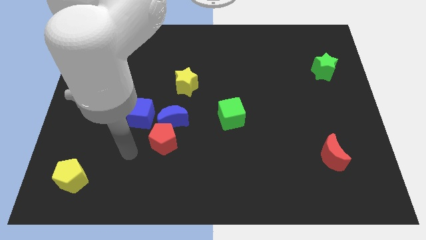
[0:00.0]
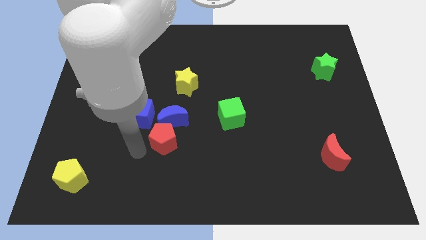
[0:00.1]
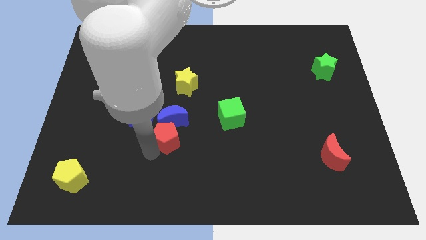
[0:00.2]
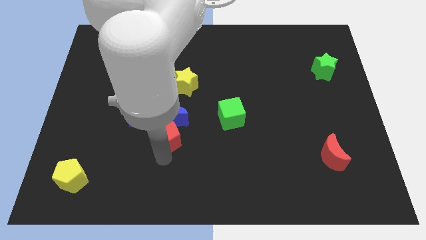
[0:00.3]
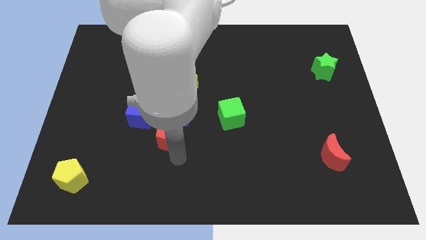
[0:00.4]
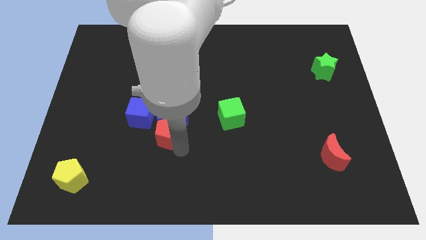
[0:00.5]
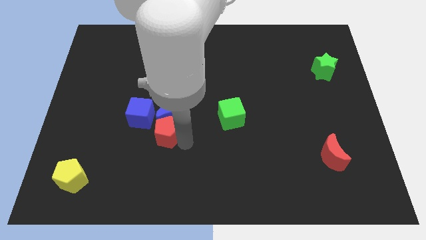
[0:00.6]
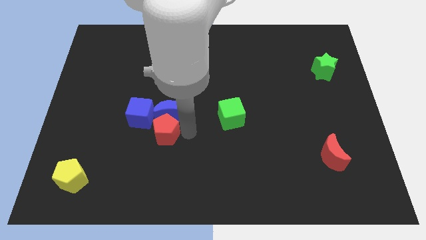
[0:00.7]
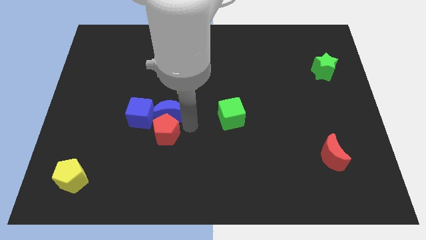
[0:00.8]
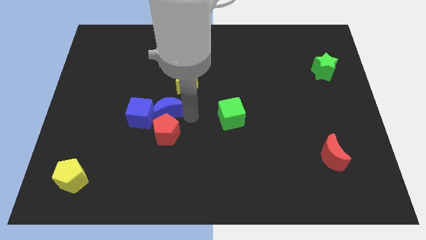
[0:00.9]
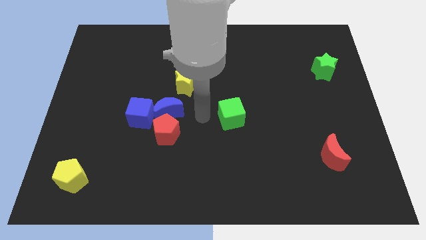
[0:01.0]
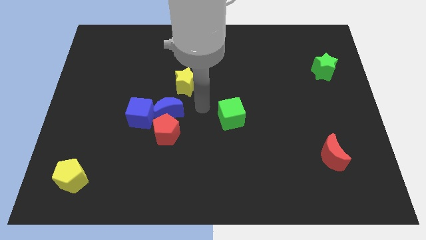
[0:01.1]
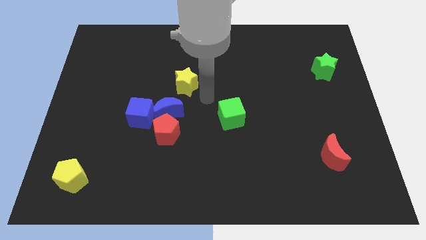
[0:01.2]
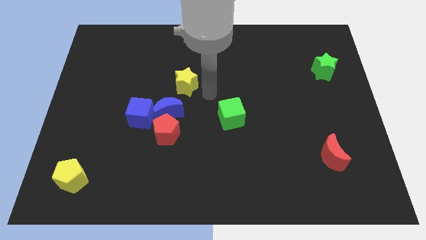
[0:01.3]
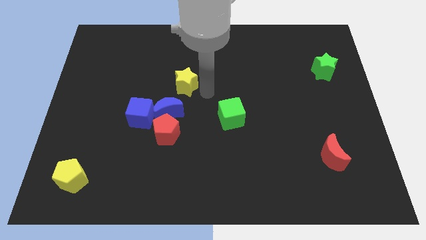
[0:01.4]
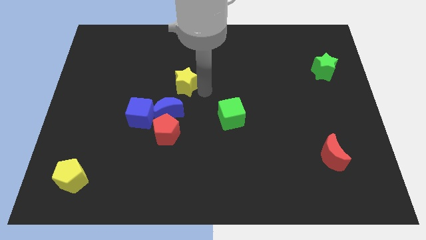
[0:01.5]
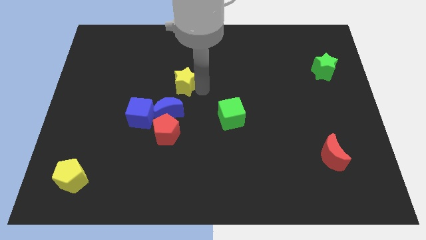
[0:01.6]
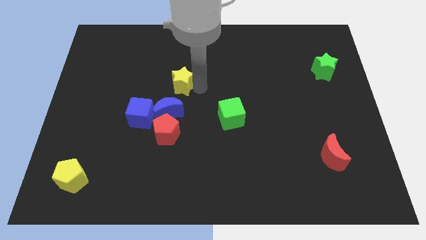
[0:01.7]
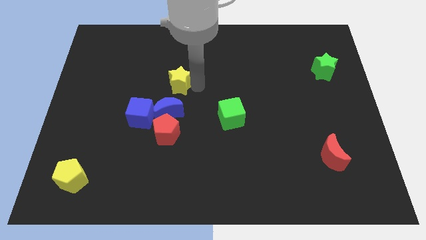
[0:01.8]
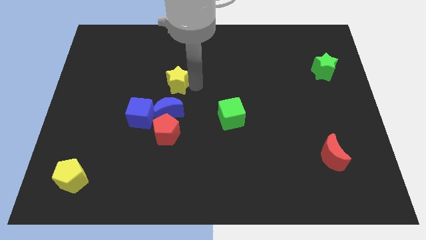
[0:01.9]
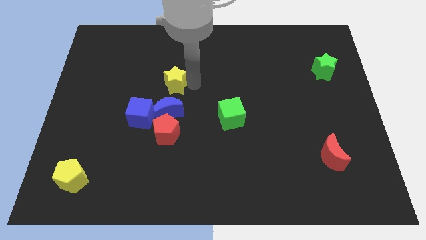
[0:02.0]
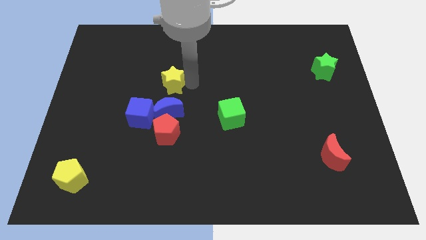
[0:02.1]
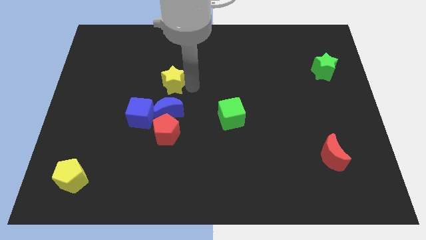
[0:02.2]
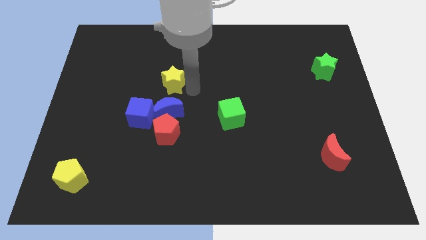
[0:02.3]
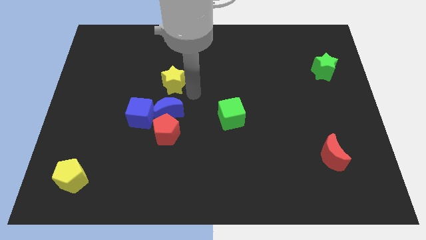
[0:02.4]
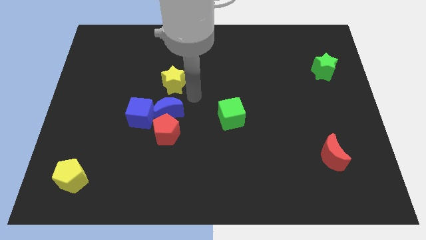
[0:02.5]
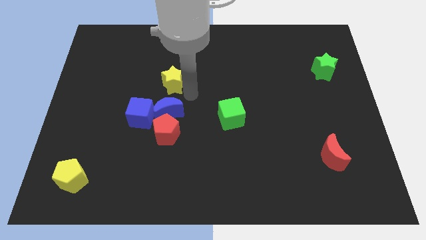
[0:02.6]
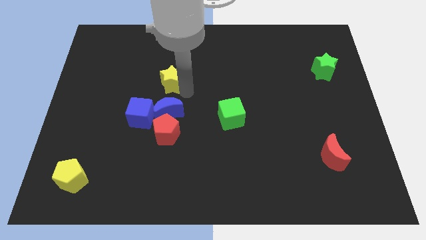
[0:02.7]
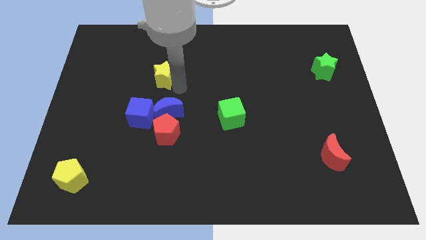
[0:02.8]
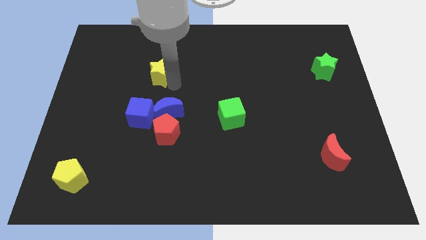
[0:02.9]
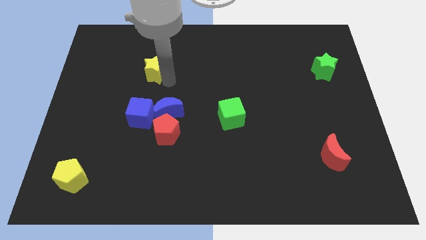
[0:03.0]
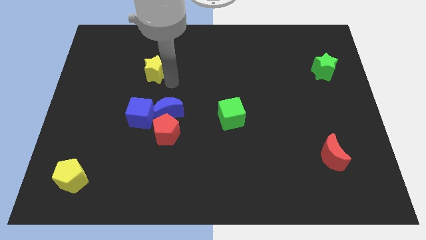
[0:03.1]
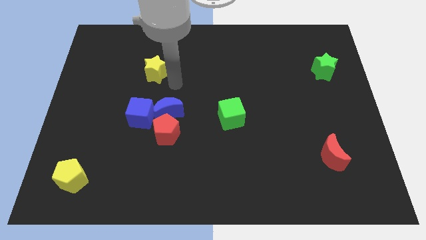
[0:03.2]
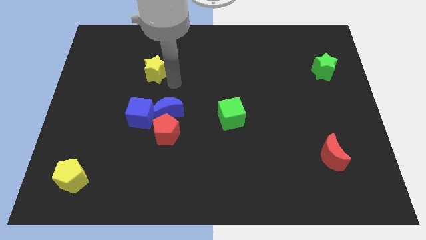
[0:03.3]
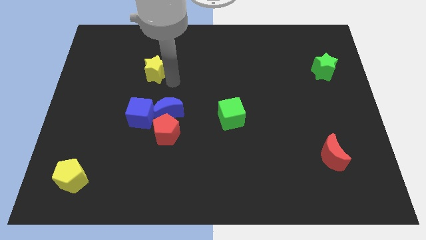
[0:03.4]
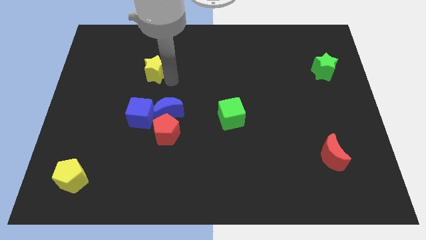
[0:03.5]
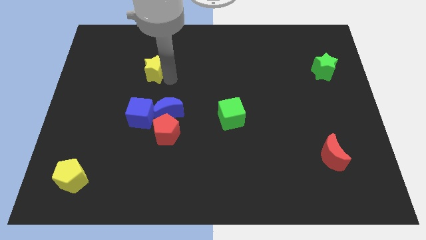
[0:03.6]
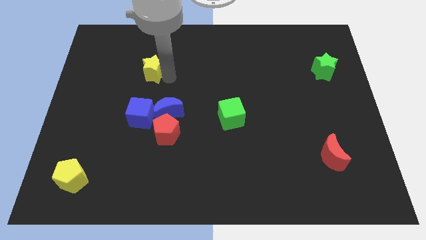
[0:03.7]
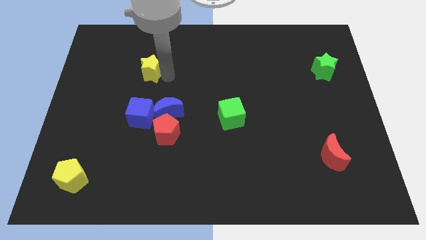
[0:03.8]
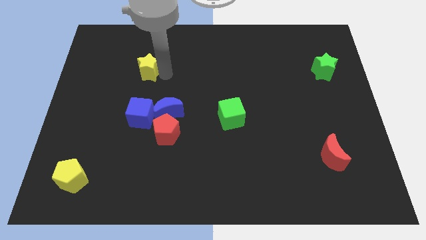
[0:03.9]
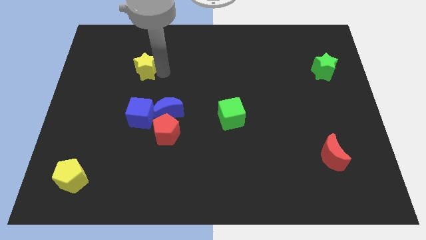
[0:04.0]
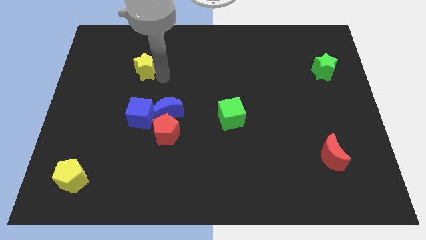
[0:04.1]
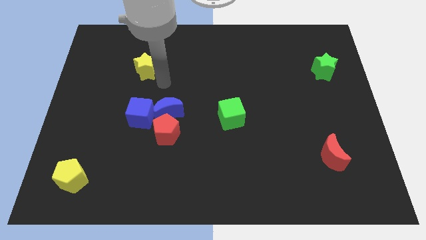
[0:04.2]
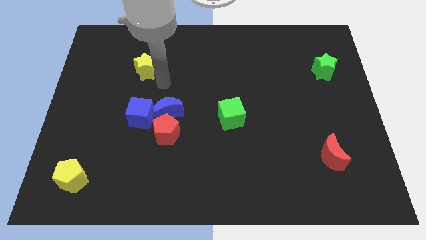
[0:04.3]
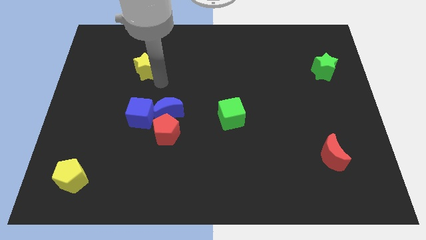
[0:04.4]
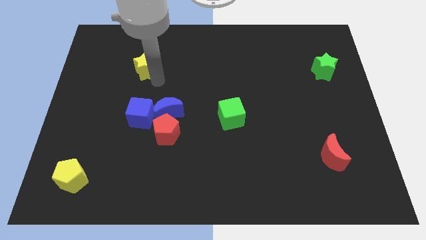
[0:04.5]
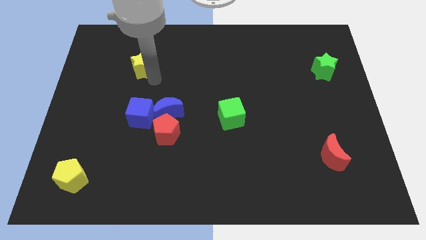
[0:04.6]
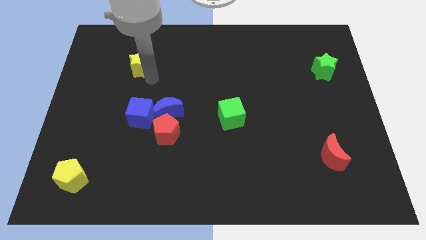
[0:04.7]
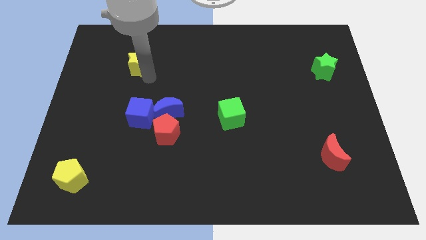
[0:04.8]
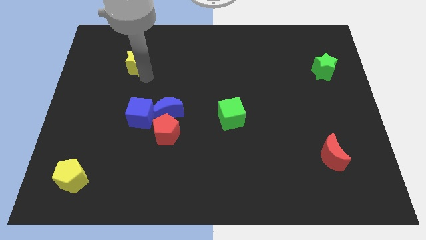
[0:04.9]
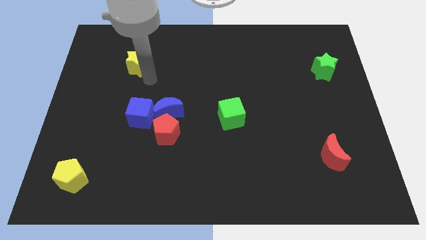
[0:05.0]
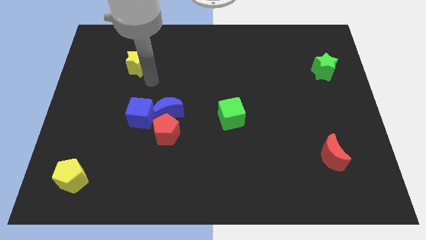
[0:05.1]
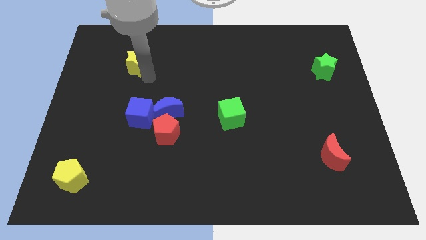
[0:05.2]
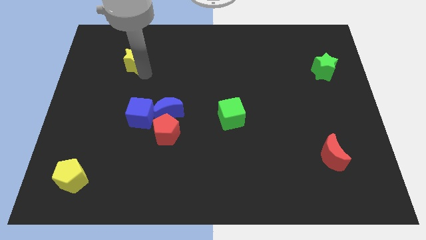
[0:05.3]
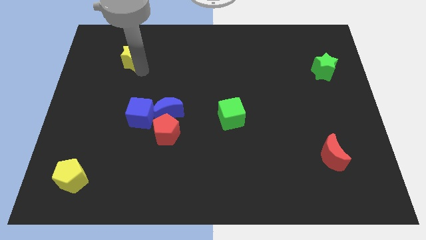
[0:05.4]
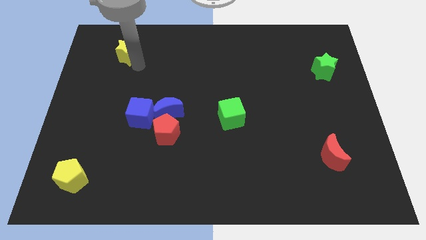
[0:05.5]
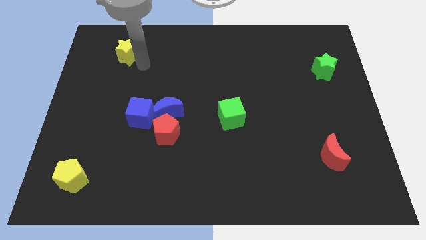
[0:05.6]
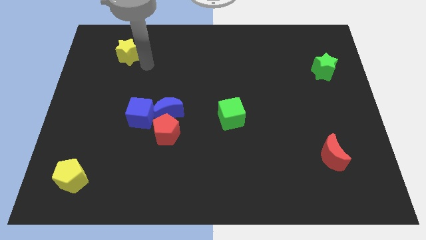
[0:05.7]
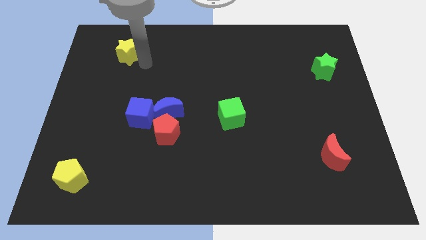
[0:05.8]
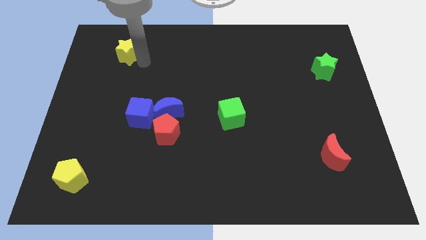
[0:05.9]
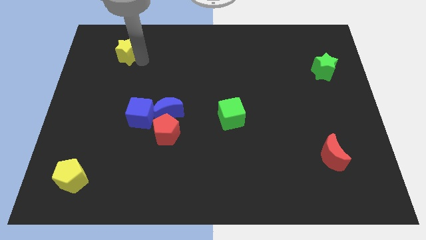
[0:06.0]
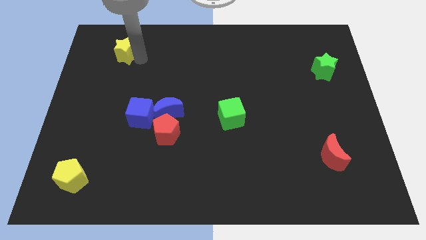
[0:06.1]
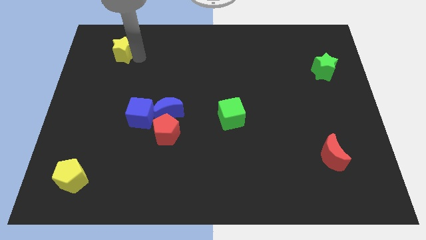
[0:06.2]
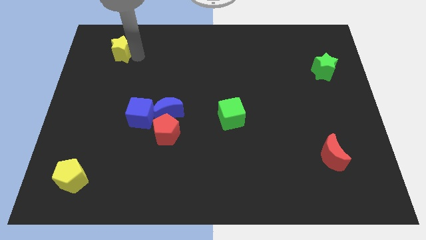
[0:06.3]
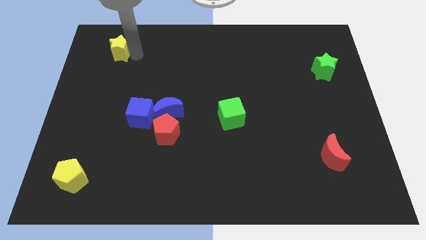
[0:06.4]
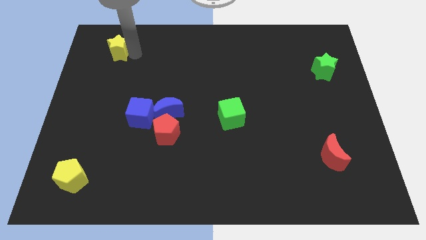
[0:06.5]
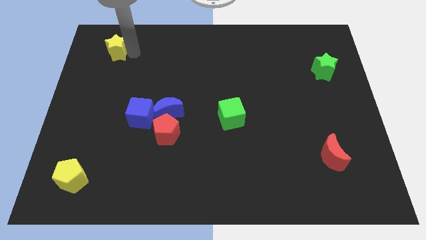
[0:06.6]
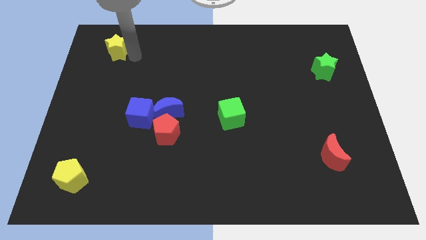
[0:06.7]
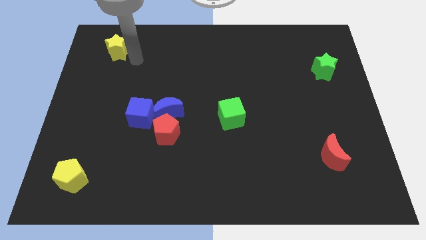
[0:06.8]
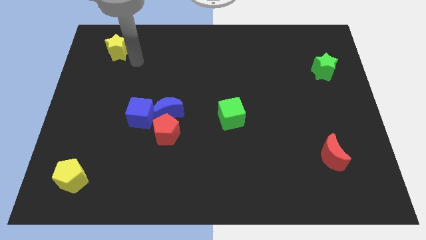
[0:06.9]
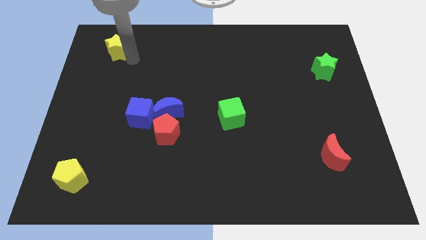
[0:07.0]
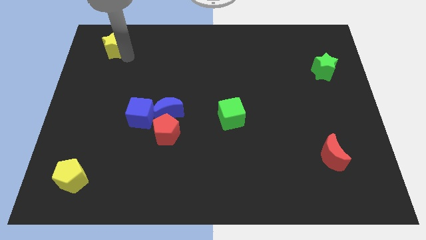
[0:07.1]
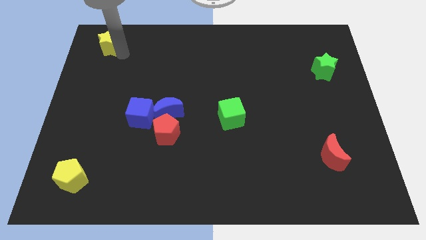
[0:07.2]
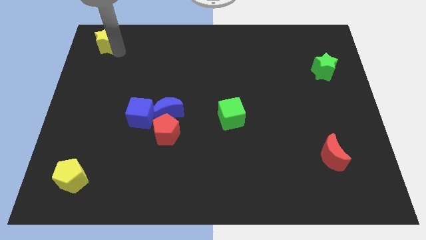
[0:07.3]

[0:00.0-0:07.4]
push the yellow star to the upper left corner
